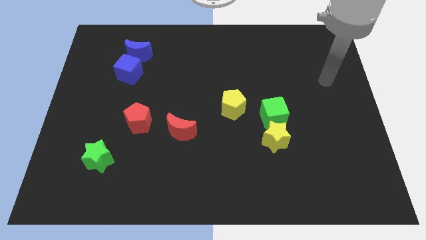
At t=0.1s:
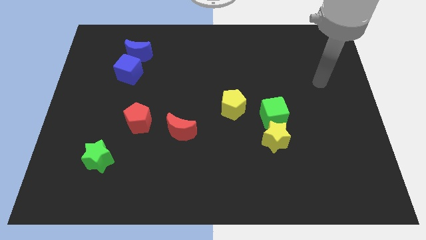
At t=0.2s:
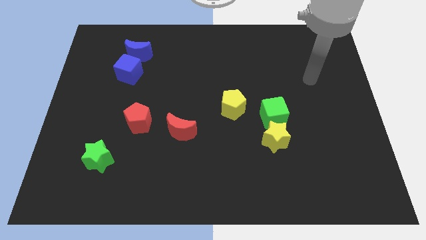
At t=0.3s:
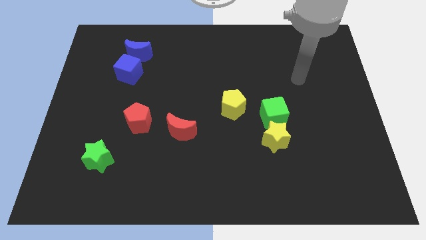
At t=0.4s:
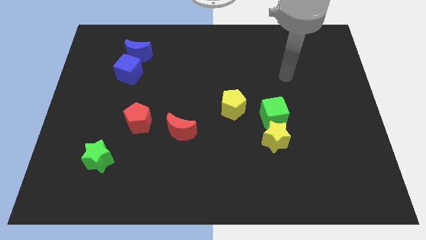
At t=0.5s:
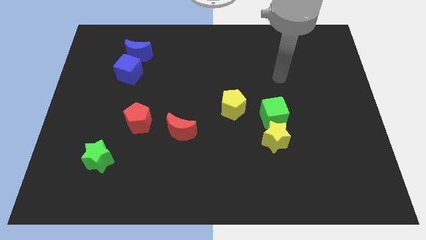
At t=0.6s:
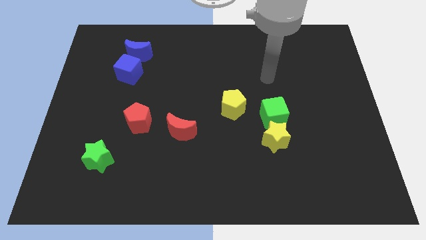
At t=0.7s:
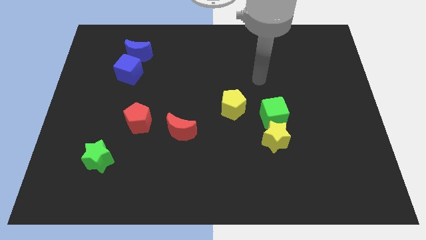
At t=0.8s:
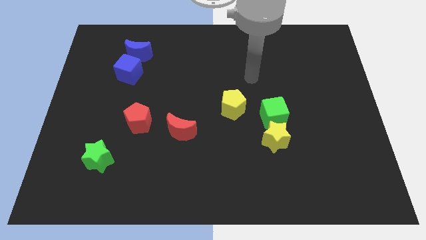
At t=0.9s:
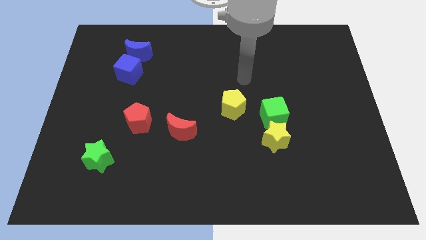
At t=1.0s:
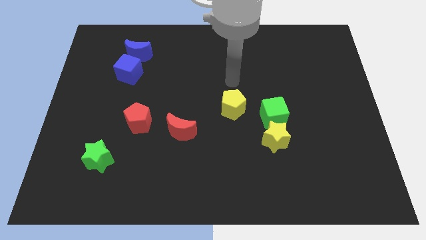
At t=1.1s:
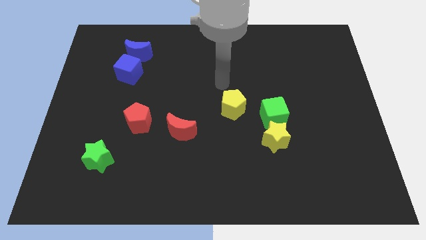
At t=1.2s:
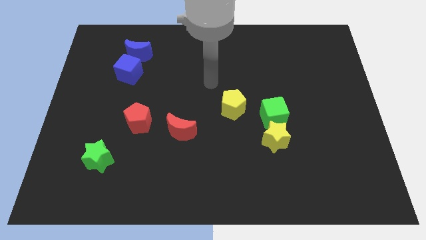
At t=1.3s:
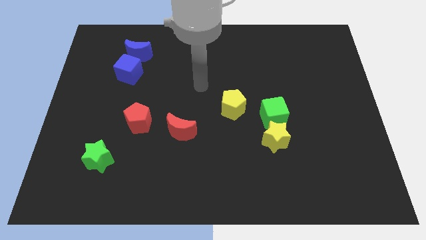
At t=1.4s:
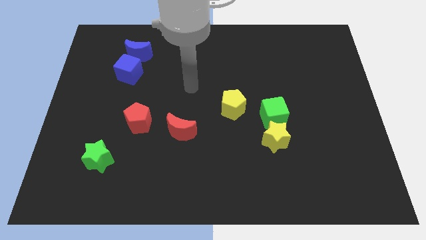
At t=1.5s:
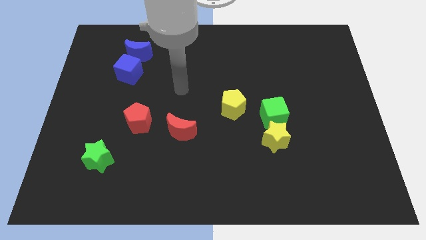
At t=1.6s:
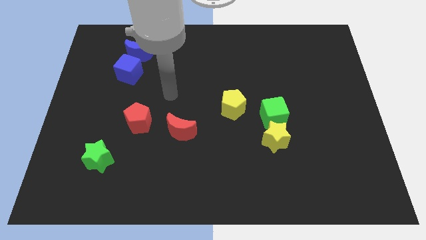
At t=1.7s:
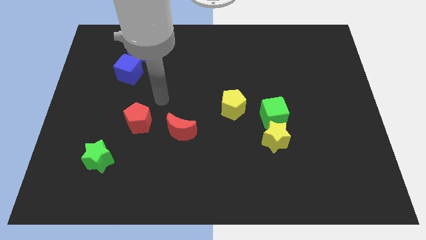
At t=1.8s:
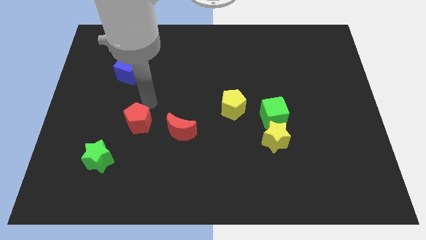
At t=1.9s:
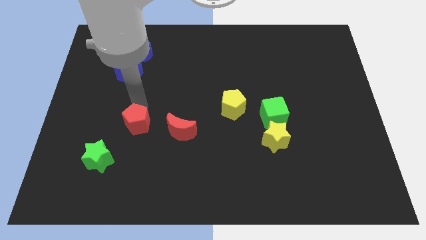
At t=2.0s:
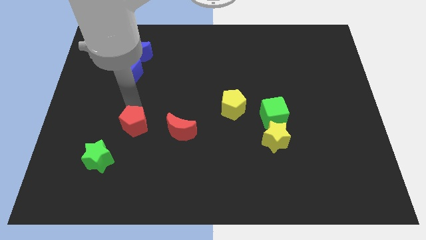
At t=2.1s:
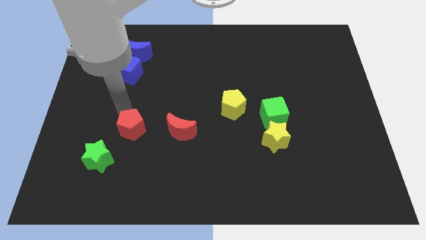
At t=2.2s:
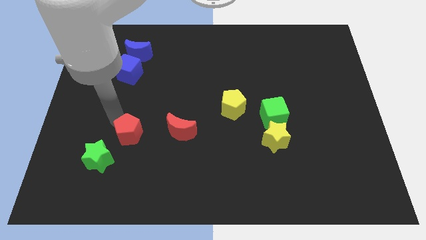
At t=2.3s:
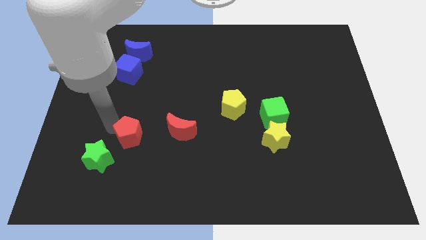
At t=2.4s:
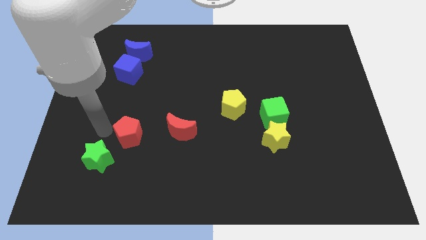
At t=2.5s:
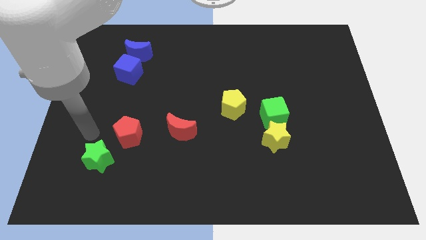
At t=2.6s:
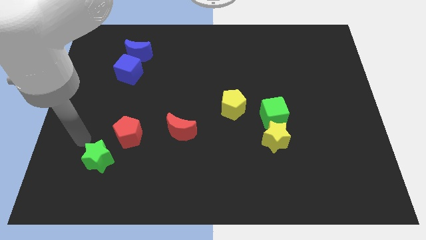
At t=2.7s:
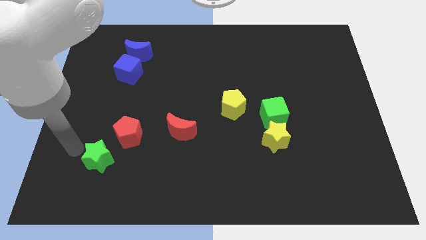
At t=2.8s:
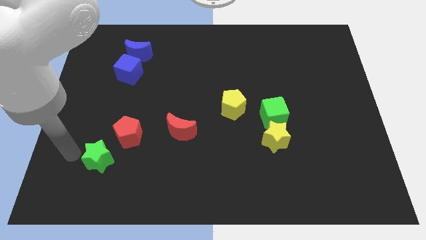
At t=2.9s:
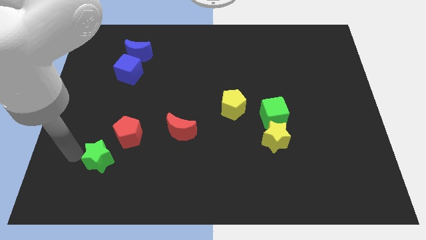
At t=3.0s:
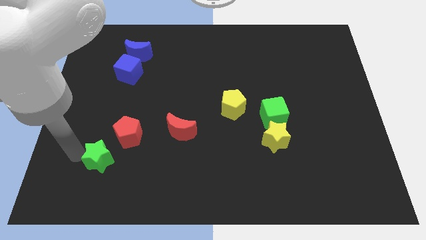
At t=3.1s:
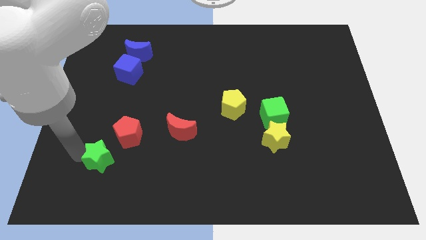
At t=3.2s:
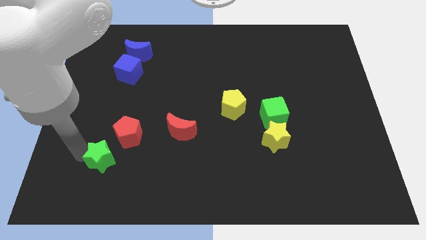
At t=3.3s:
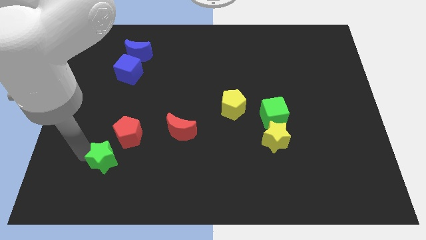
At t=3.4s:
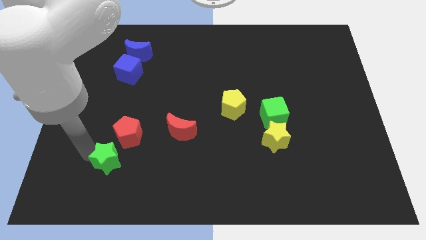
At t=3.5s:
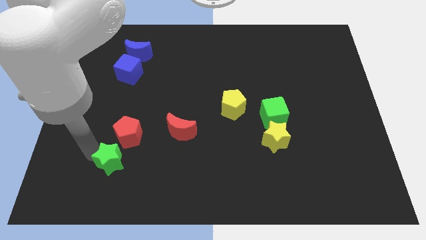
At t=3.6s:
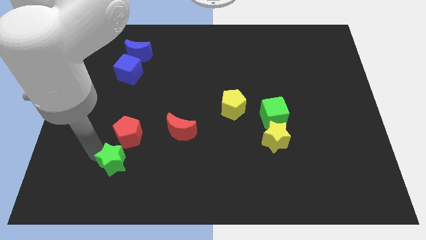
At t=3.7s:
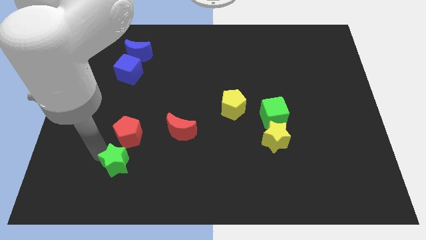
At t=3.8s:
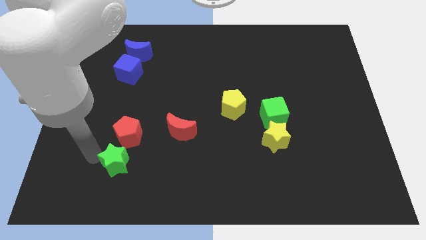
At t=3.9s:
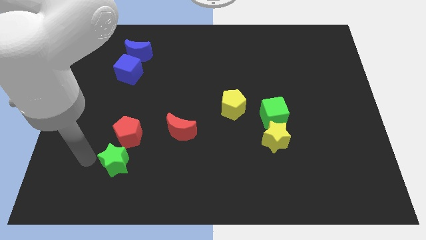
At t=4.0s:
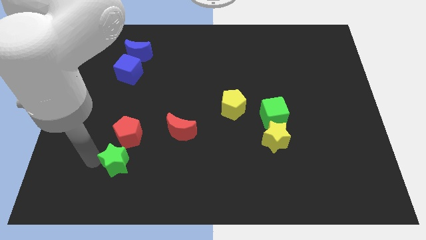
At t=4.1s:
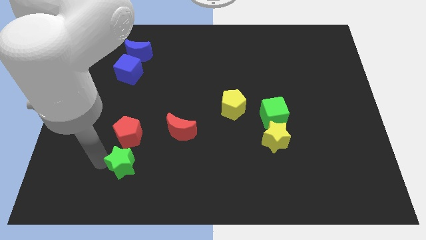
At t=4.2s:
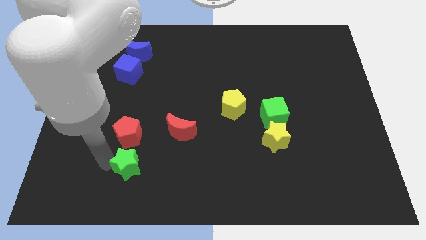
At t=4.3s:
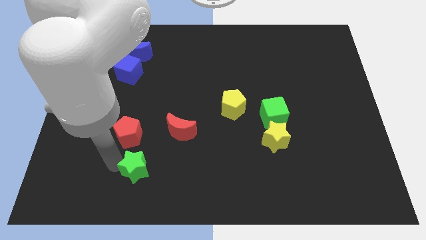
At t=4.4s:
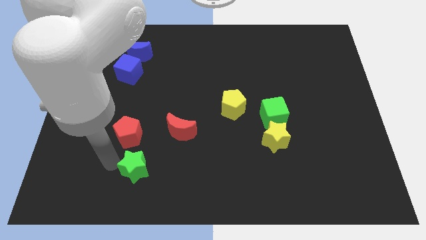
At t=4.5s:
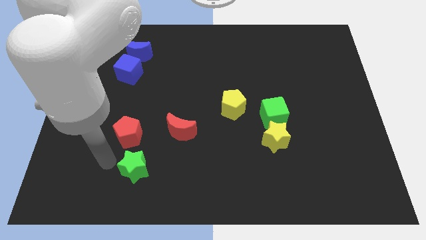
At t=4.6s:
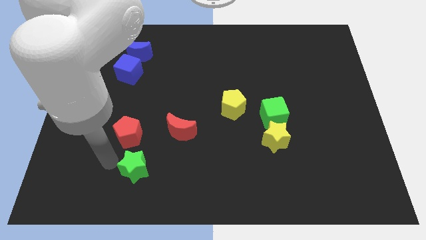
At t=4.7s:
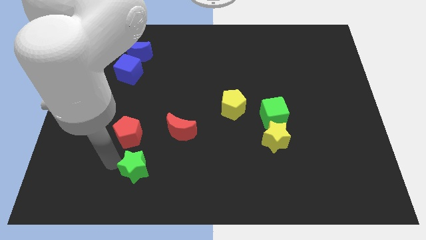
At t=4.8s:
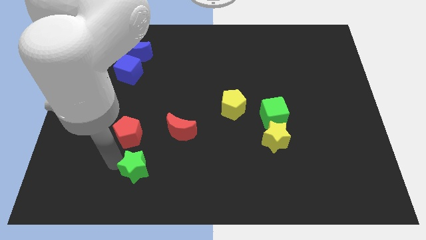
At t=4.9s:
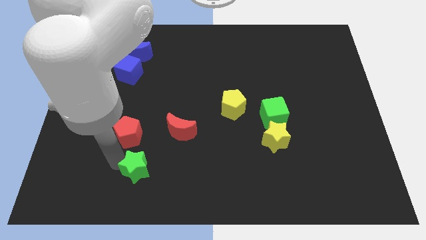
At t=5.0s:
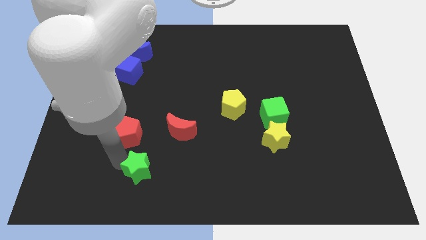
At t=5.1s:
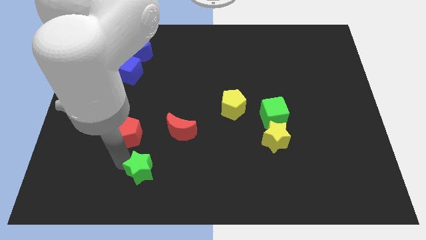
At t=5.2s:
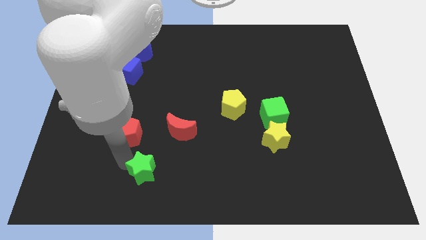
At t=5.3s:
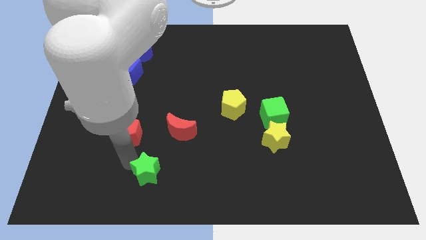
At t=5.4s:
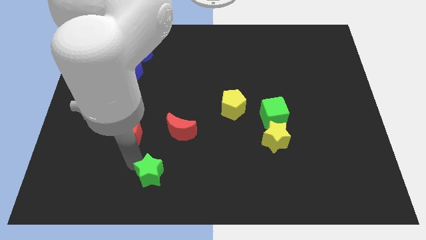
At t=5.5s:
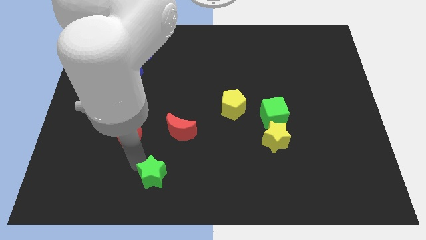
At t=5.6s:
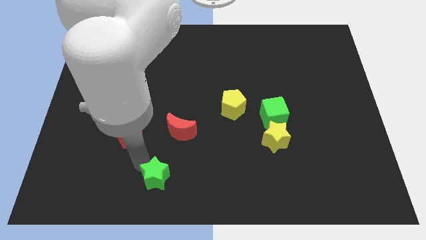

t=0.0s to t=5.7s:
push the green star to the bottom side

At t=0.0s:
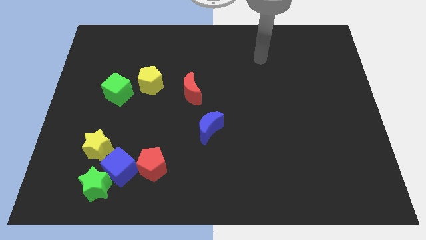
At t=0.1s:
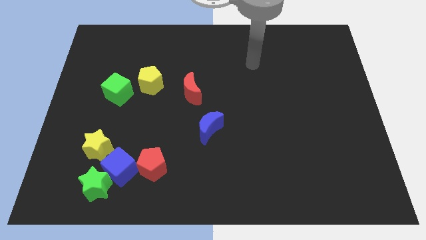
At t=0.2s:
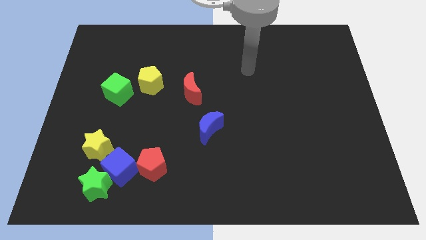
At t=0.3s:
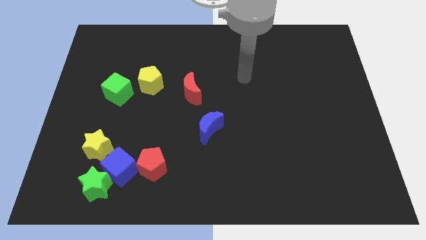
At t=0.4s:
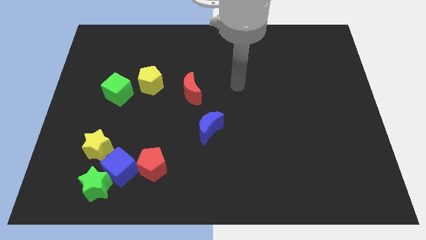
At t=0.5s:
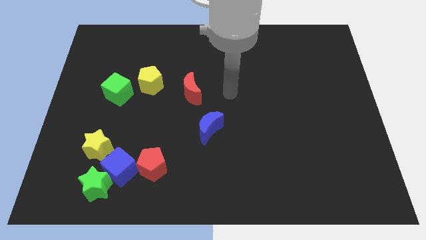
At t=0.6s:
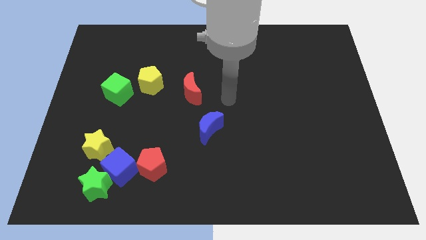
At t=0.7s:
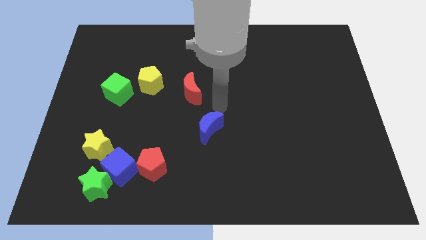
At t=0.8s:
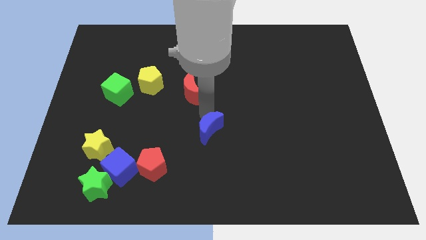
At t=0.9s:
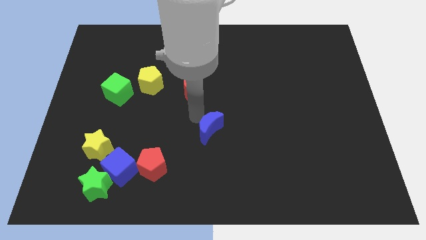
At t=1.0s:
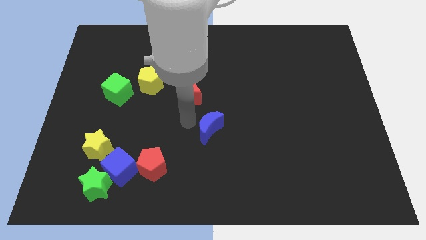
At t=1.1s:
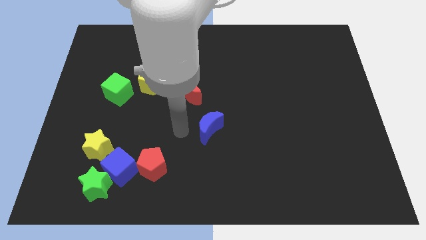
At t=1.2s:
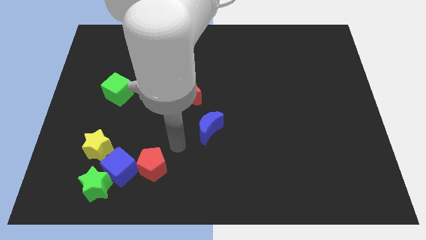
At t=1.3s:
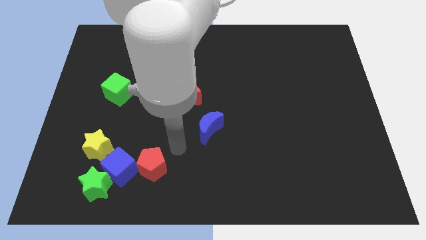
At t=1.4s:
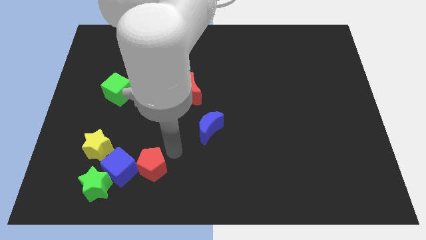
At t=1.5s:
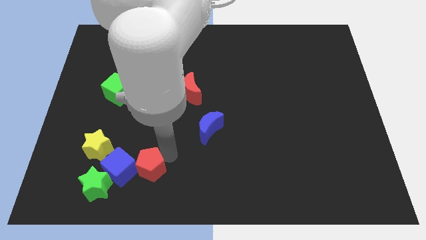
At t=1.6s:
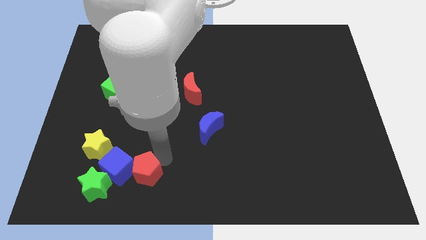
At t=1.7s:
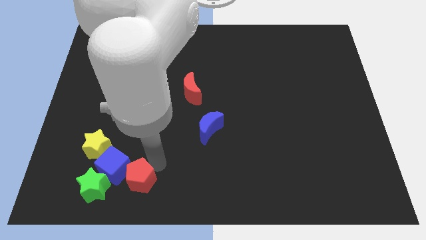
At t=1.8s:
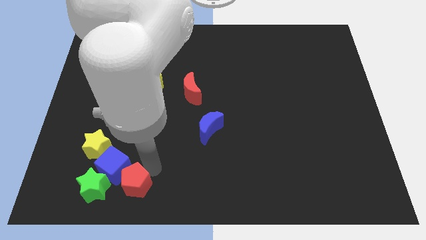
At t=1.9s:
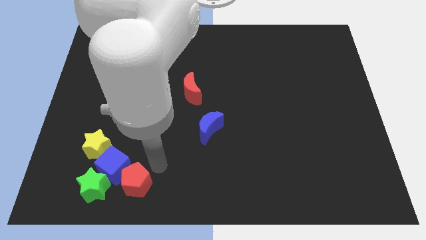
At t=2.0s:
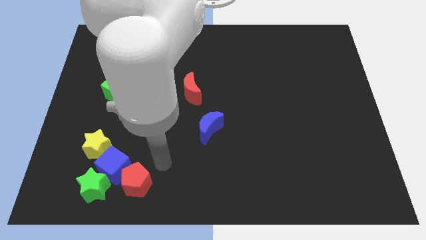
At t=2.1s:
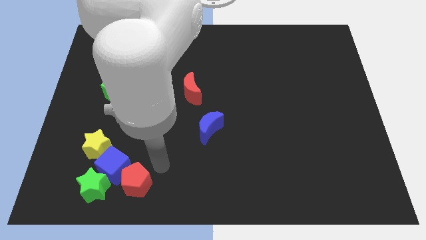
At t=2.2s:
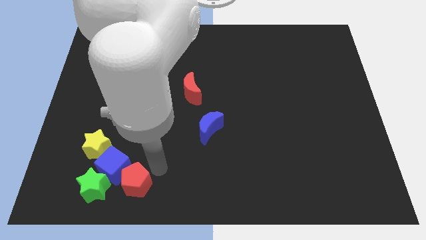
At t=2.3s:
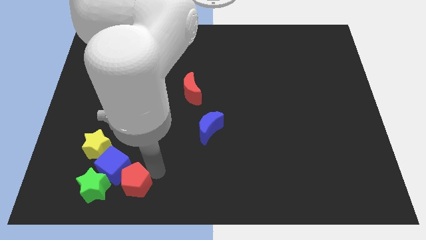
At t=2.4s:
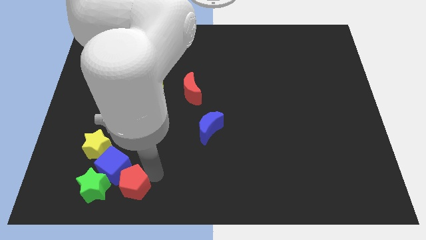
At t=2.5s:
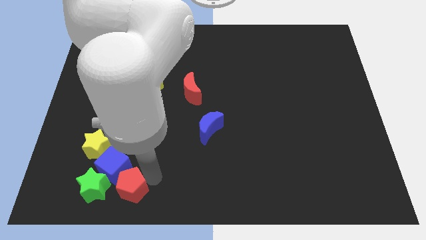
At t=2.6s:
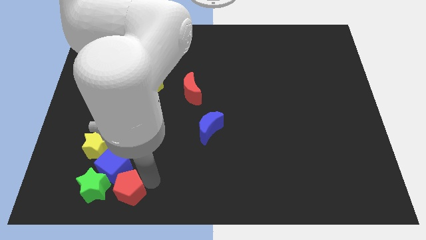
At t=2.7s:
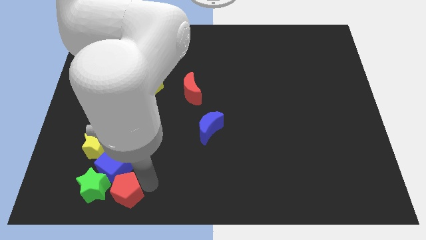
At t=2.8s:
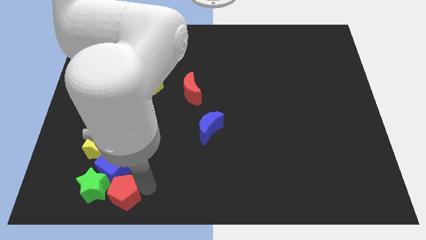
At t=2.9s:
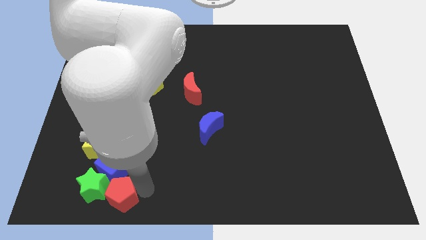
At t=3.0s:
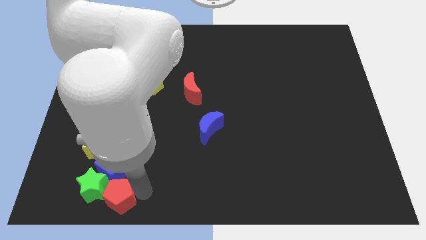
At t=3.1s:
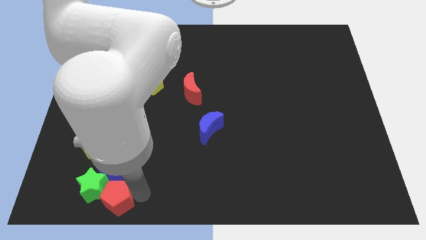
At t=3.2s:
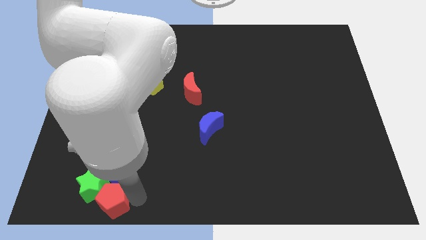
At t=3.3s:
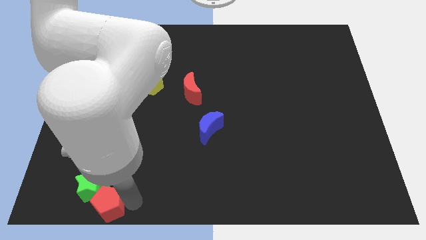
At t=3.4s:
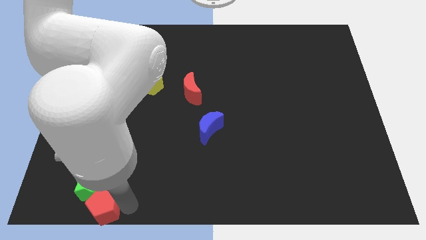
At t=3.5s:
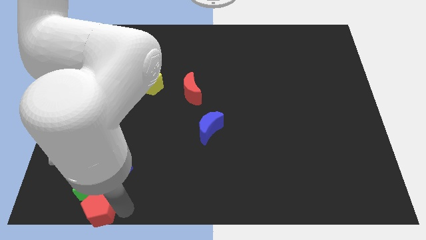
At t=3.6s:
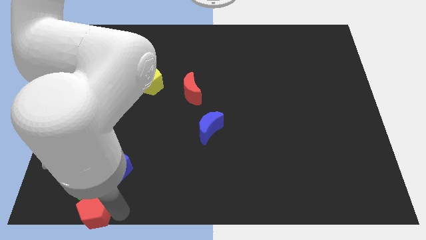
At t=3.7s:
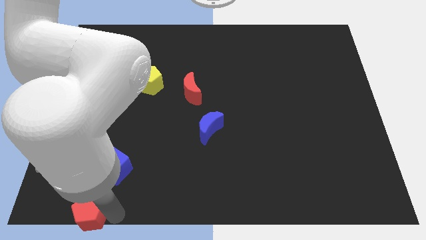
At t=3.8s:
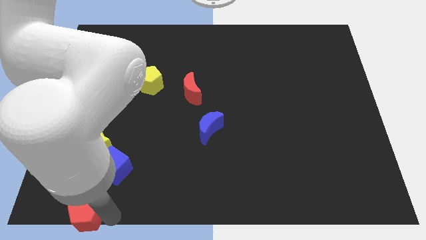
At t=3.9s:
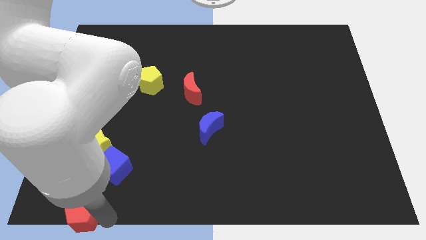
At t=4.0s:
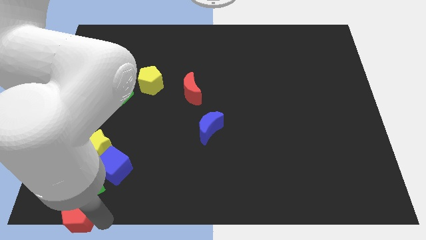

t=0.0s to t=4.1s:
push the red pentagon to the bottom left corner
